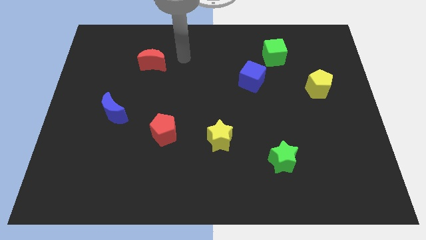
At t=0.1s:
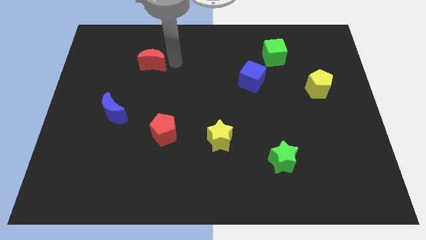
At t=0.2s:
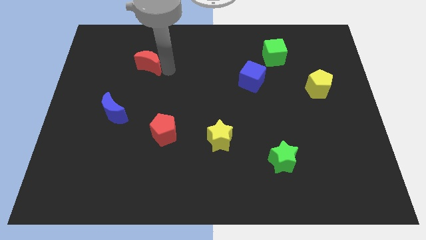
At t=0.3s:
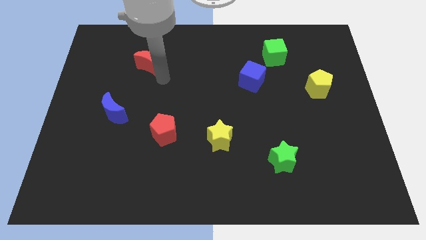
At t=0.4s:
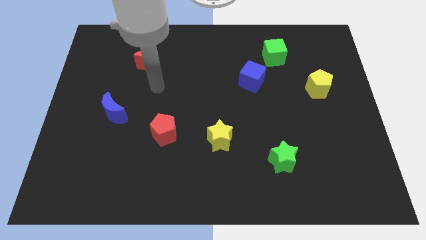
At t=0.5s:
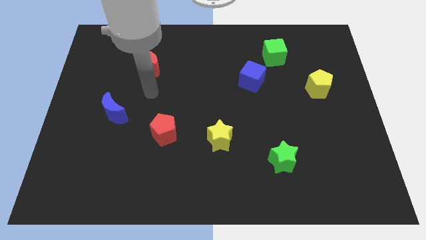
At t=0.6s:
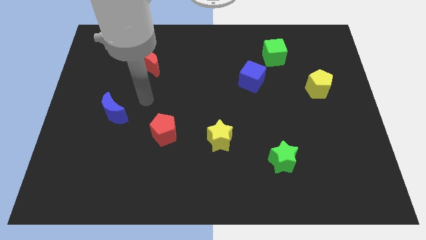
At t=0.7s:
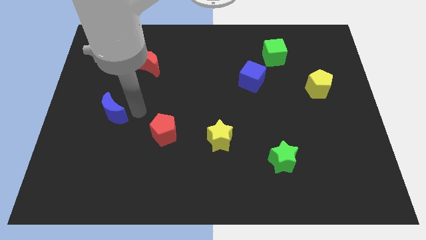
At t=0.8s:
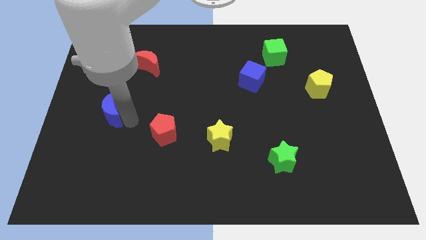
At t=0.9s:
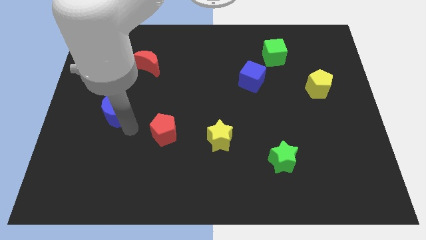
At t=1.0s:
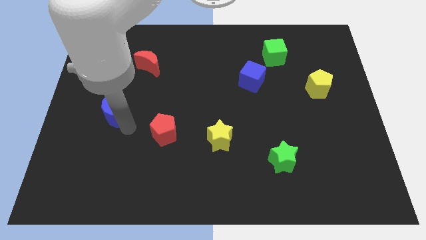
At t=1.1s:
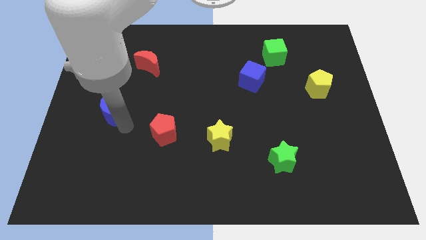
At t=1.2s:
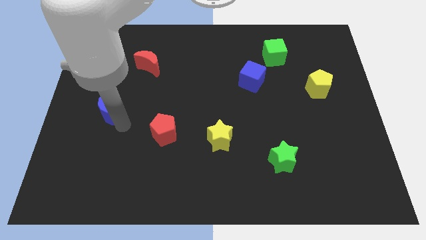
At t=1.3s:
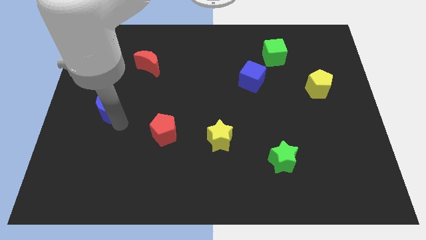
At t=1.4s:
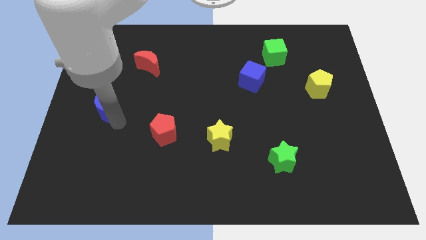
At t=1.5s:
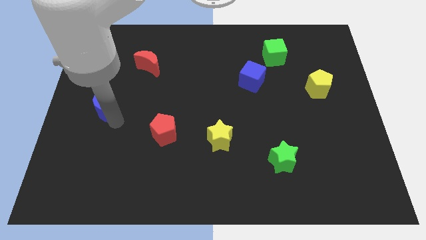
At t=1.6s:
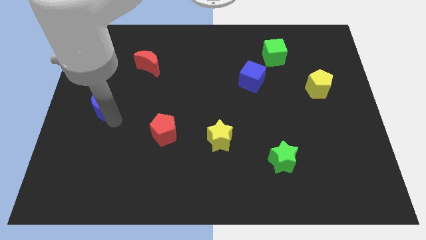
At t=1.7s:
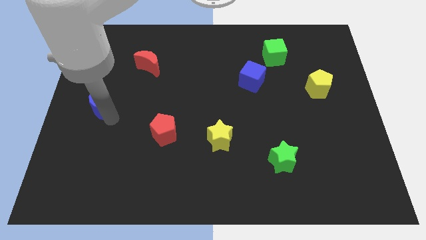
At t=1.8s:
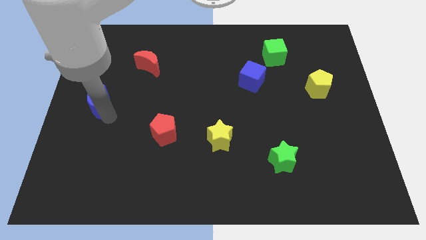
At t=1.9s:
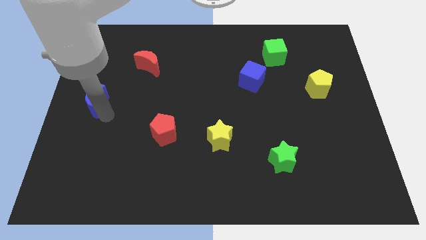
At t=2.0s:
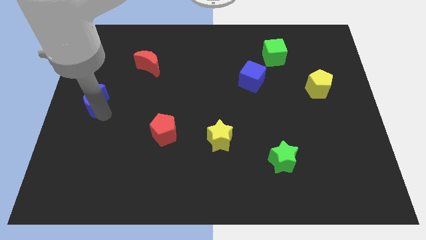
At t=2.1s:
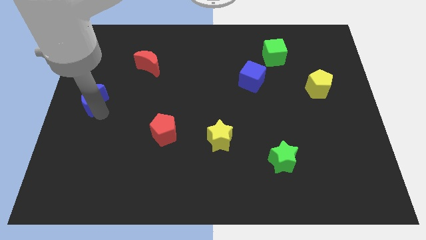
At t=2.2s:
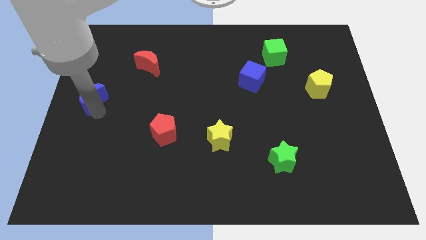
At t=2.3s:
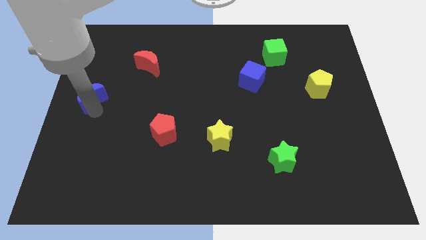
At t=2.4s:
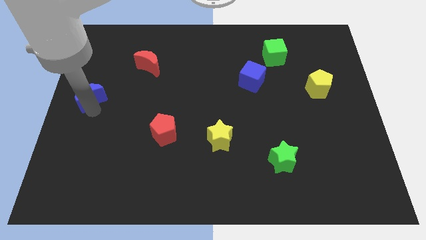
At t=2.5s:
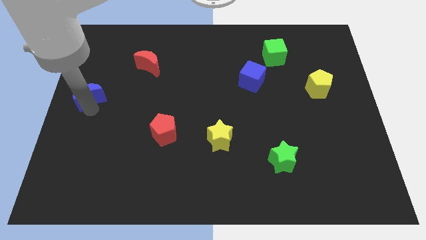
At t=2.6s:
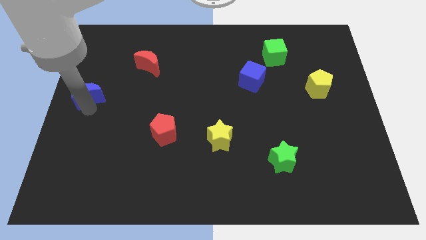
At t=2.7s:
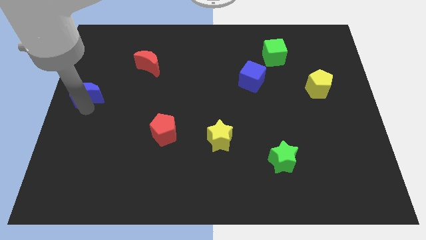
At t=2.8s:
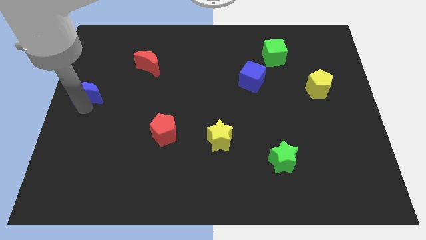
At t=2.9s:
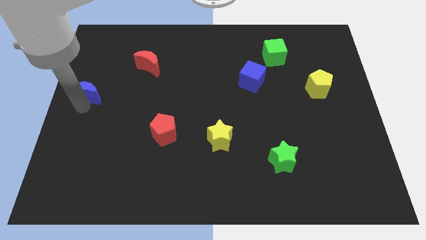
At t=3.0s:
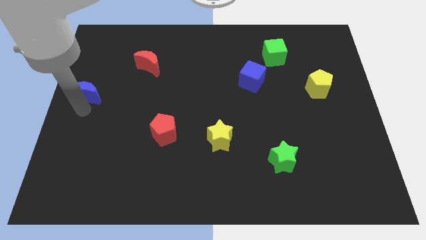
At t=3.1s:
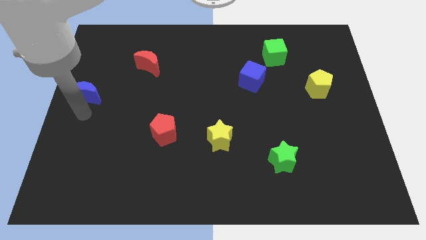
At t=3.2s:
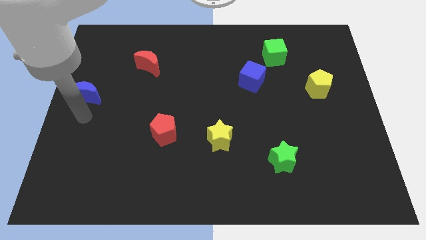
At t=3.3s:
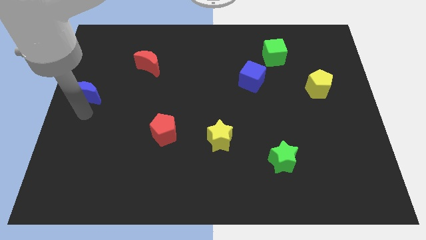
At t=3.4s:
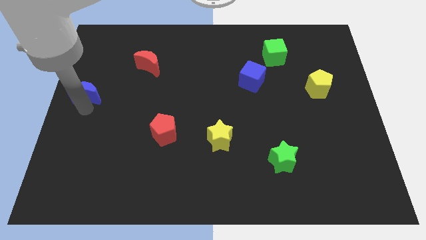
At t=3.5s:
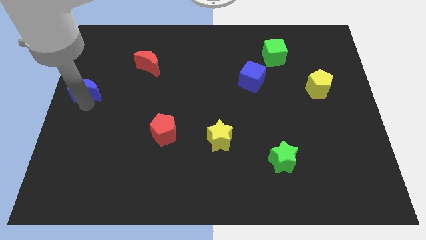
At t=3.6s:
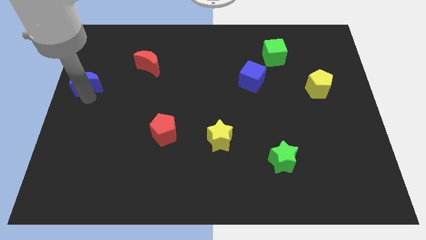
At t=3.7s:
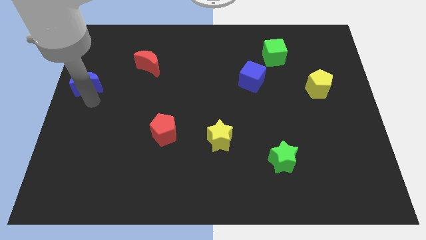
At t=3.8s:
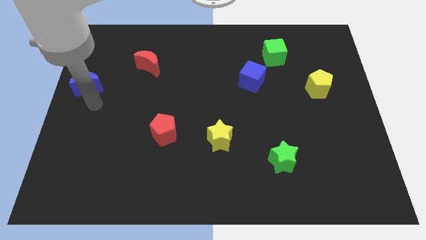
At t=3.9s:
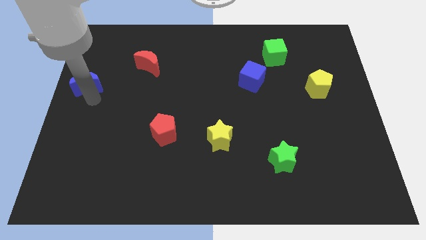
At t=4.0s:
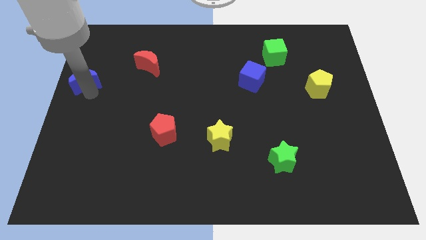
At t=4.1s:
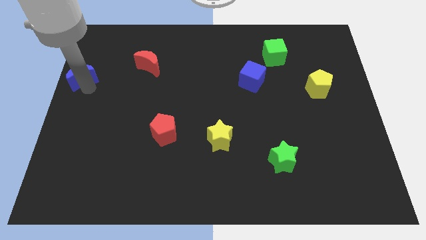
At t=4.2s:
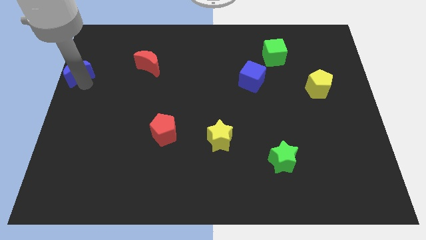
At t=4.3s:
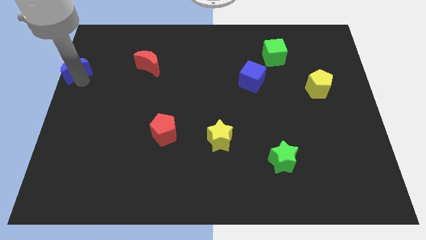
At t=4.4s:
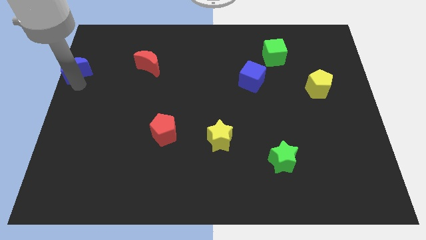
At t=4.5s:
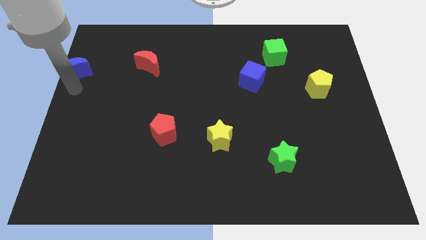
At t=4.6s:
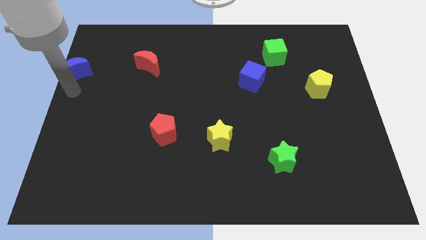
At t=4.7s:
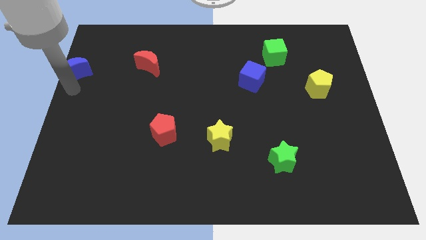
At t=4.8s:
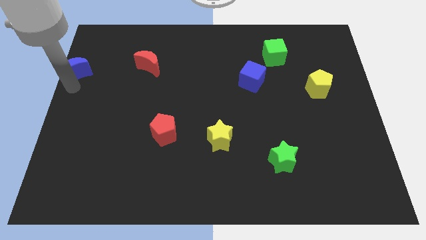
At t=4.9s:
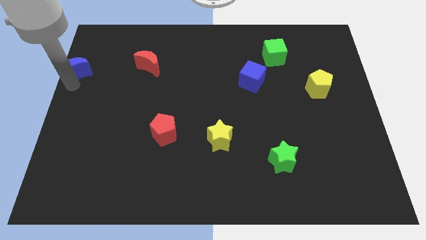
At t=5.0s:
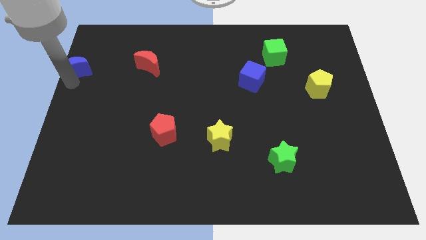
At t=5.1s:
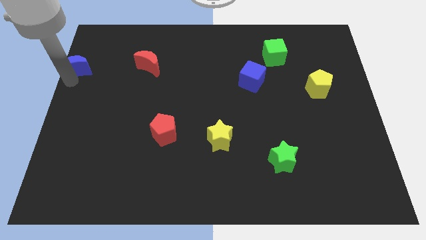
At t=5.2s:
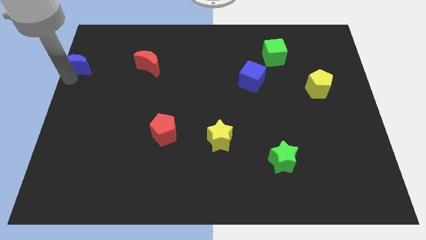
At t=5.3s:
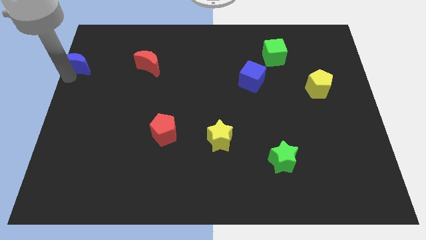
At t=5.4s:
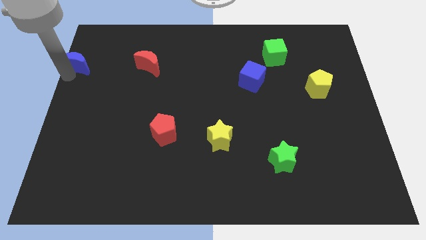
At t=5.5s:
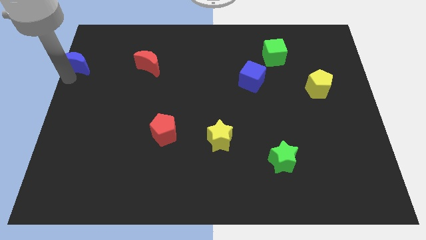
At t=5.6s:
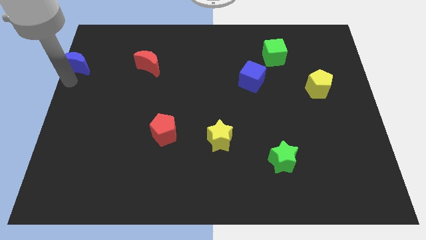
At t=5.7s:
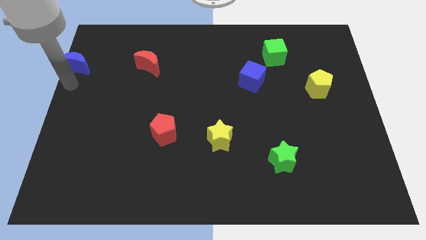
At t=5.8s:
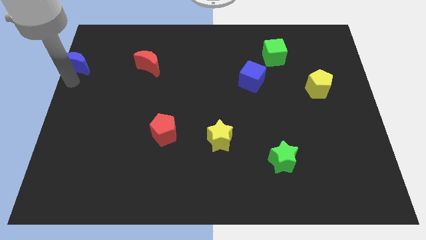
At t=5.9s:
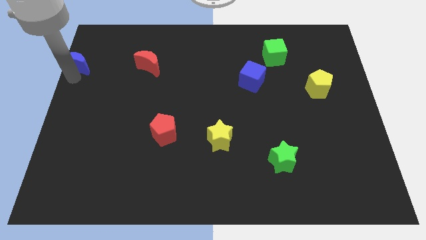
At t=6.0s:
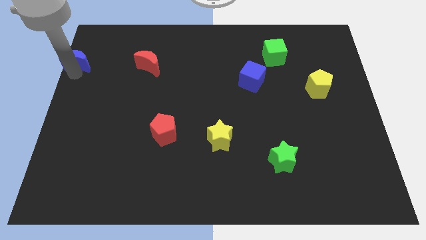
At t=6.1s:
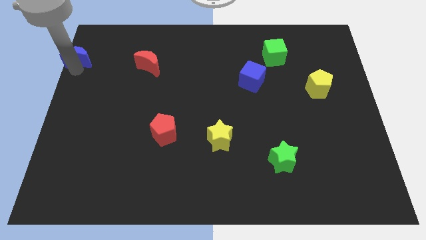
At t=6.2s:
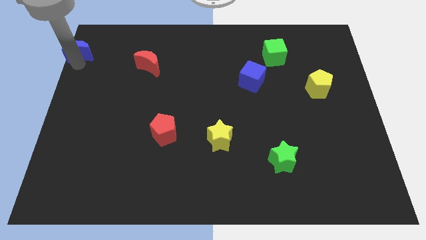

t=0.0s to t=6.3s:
move the blue moon to the top left of the board
